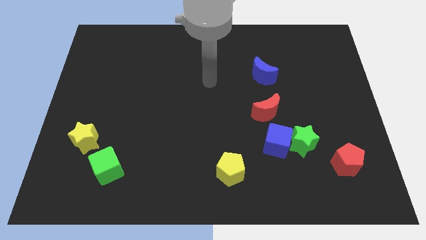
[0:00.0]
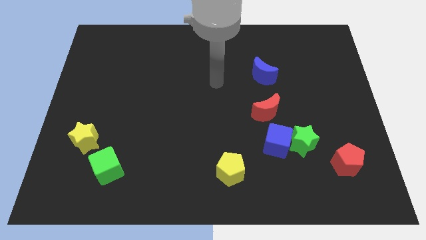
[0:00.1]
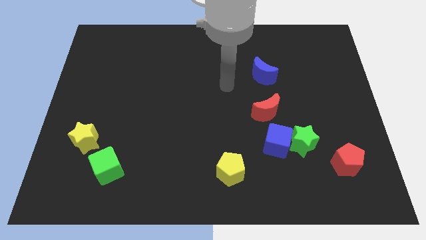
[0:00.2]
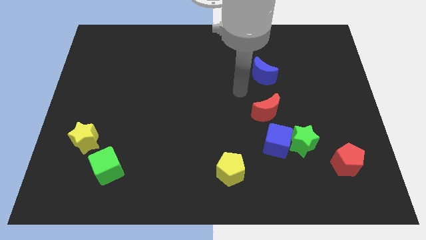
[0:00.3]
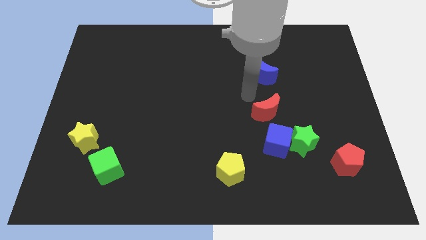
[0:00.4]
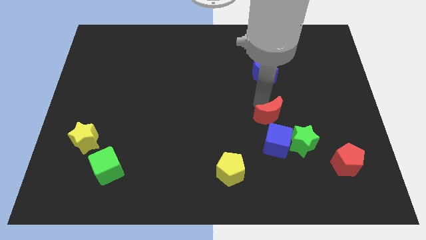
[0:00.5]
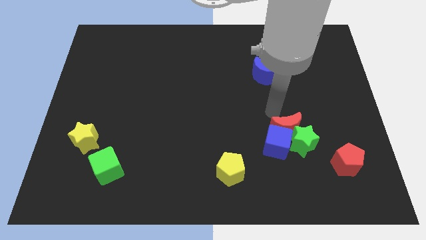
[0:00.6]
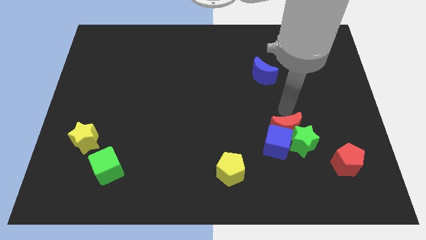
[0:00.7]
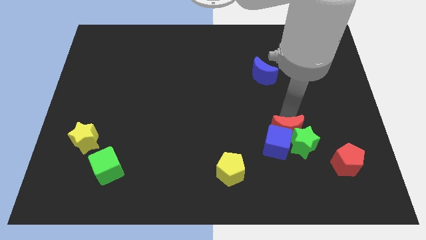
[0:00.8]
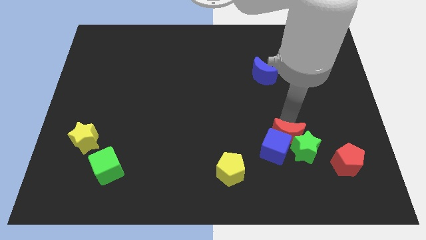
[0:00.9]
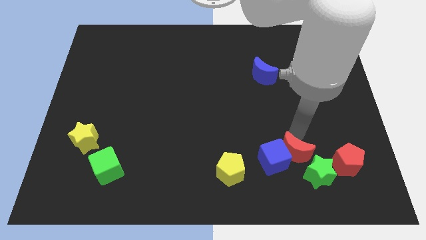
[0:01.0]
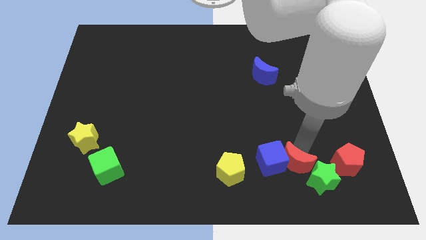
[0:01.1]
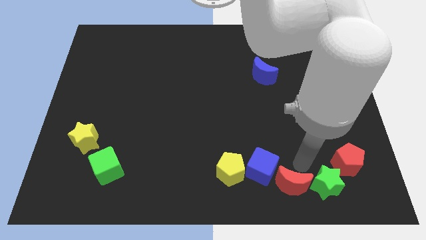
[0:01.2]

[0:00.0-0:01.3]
pull the blue cube apart from the green star and red moon

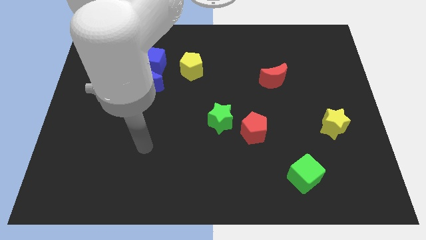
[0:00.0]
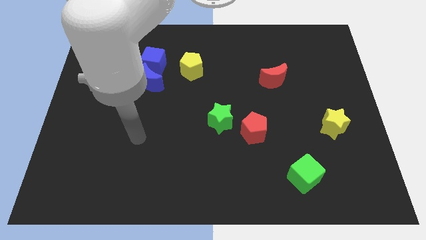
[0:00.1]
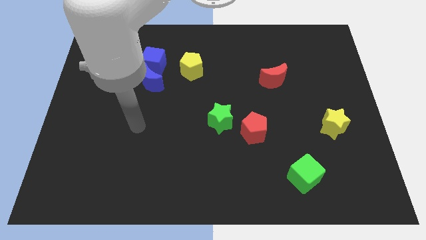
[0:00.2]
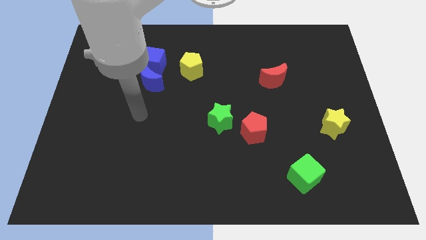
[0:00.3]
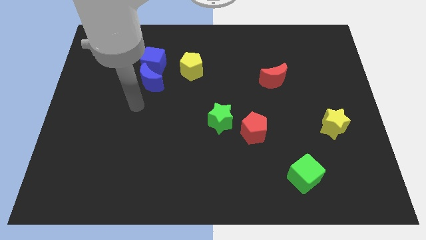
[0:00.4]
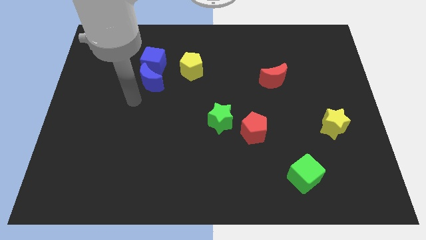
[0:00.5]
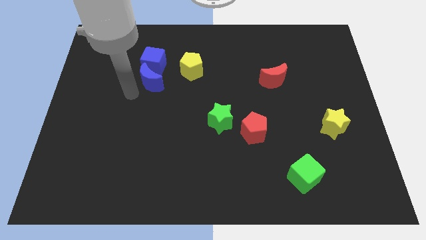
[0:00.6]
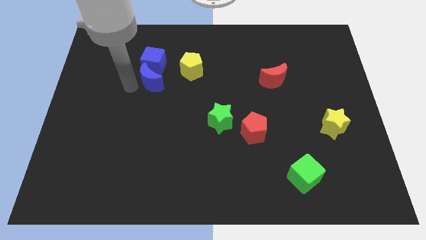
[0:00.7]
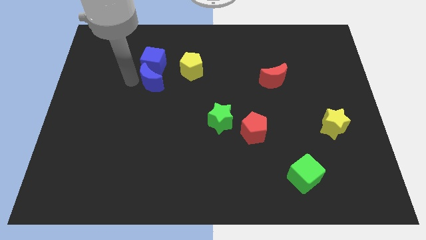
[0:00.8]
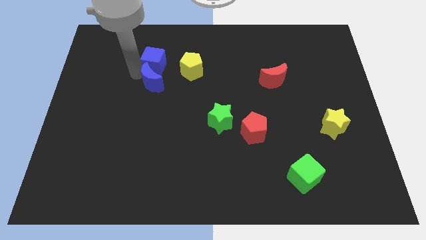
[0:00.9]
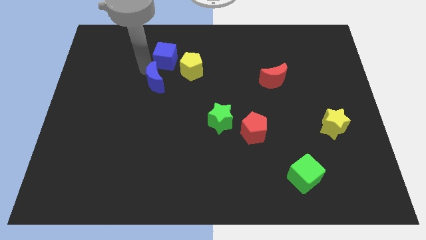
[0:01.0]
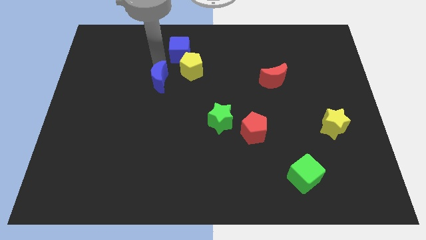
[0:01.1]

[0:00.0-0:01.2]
pull the blue moon apart from the blue cube

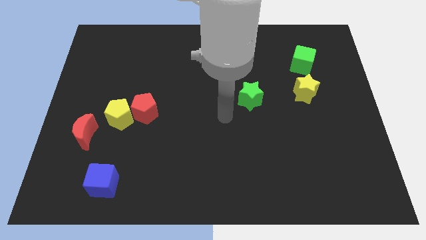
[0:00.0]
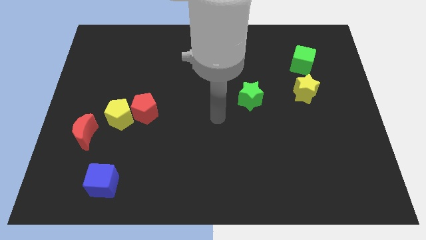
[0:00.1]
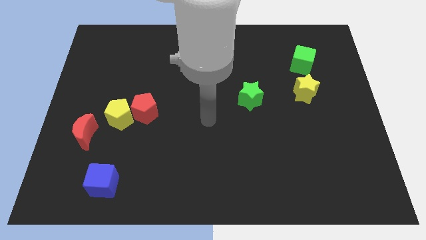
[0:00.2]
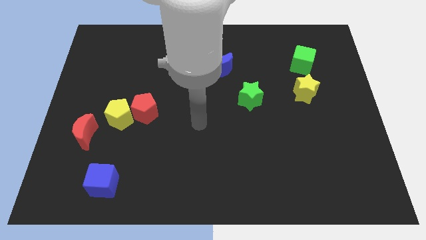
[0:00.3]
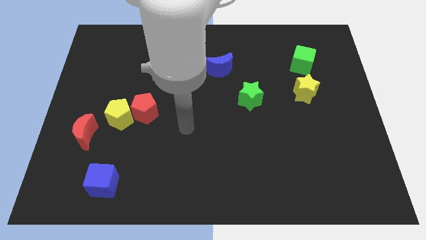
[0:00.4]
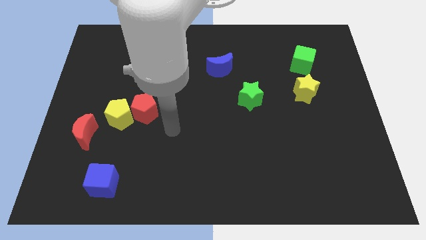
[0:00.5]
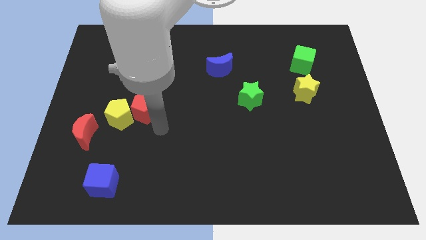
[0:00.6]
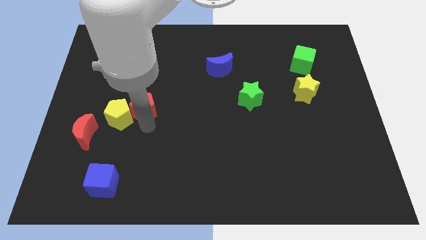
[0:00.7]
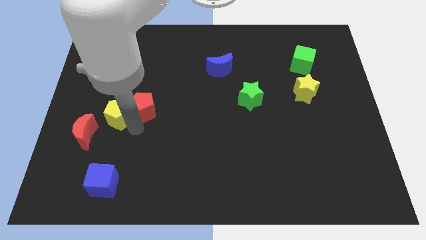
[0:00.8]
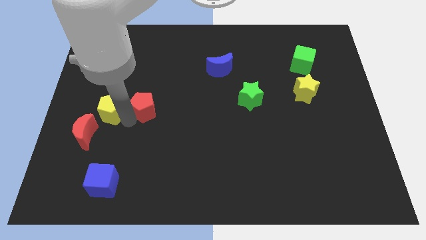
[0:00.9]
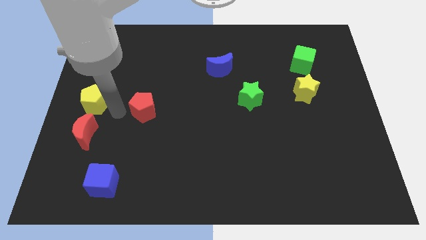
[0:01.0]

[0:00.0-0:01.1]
move the red pentagon away from the yellow pentagon

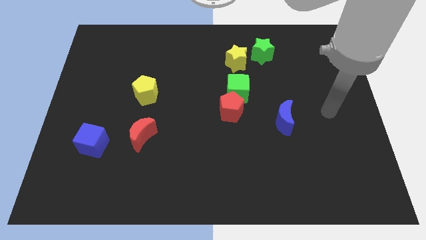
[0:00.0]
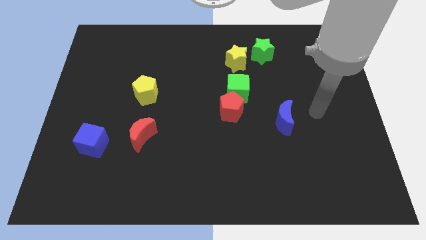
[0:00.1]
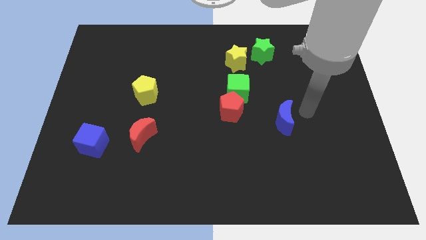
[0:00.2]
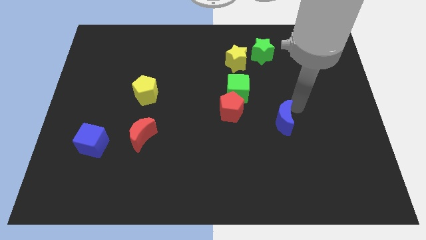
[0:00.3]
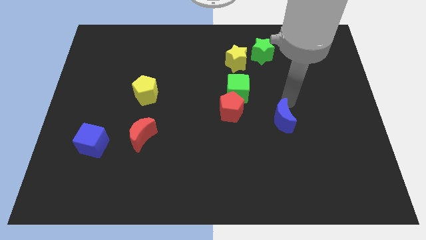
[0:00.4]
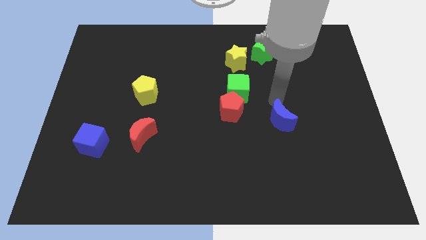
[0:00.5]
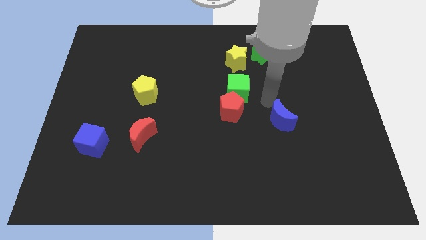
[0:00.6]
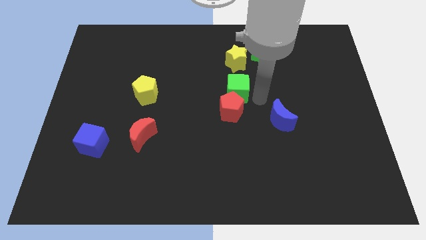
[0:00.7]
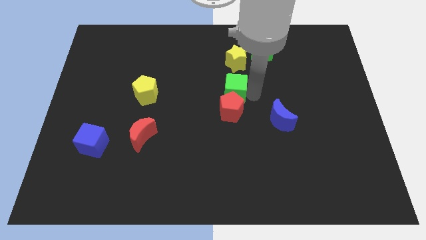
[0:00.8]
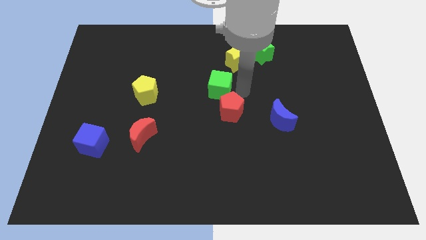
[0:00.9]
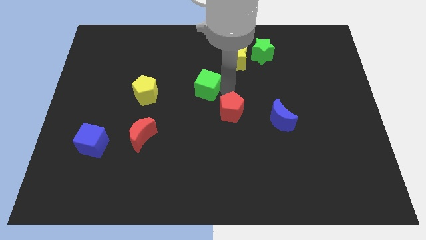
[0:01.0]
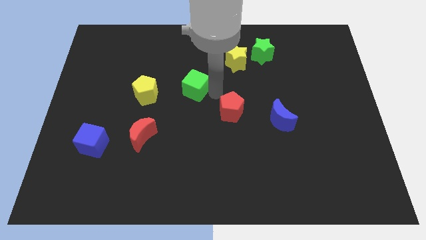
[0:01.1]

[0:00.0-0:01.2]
separate the red pentagon from the green cube

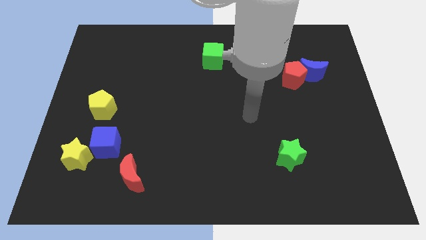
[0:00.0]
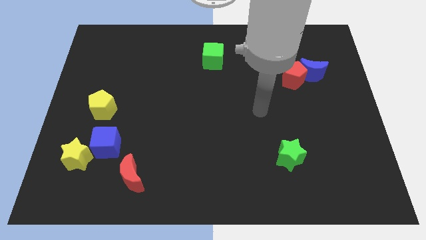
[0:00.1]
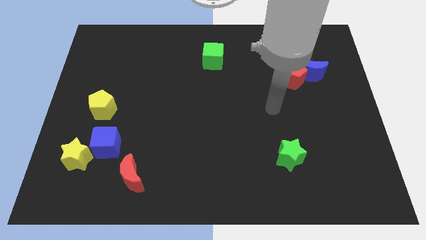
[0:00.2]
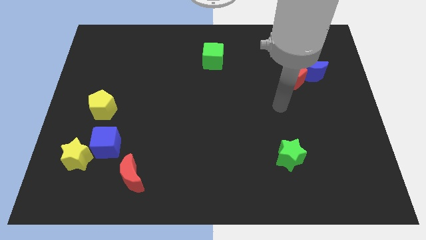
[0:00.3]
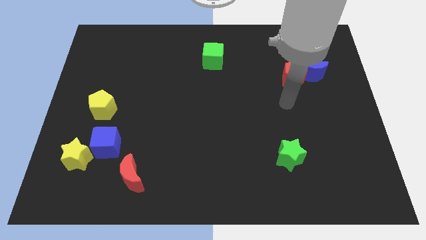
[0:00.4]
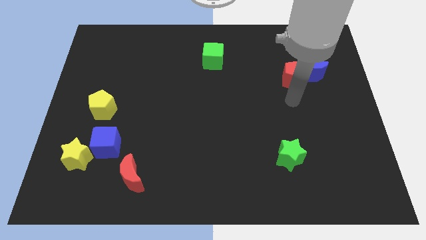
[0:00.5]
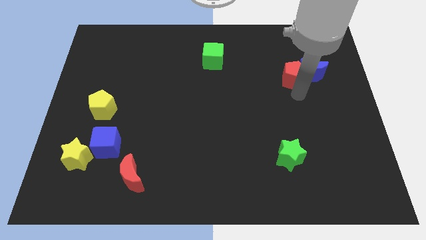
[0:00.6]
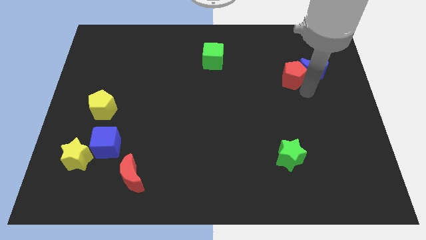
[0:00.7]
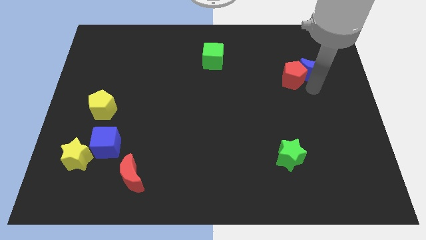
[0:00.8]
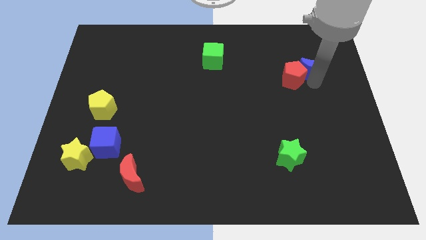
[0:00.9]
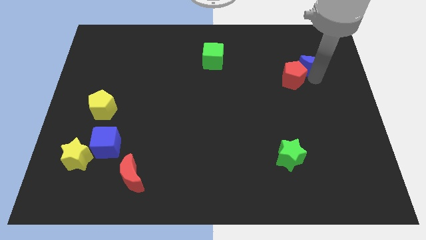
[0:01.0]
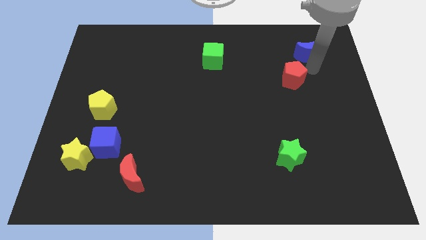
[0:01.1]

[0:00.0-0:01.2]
pull the red pentagon apart from the blue moon

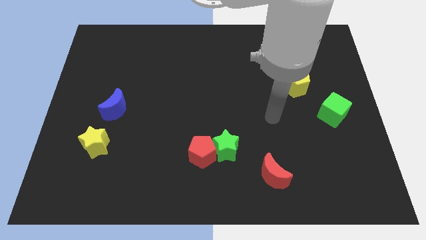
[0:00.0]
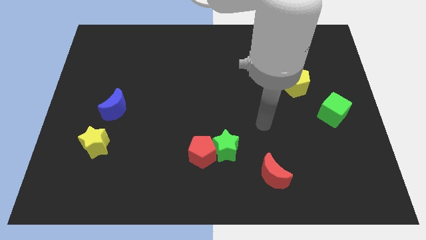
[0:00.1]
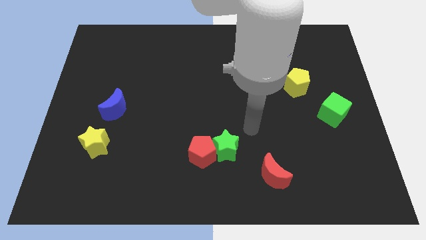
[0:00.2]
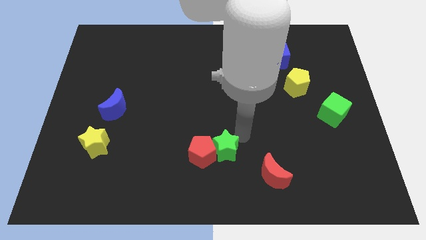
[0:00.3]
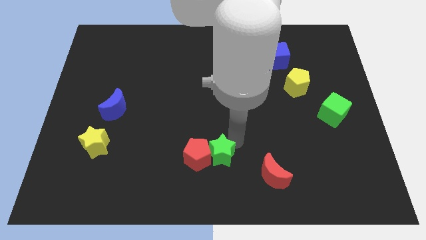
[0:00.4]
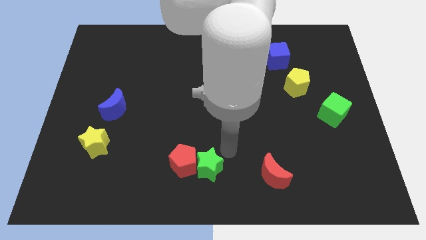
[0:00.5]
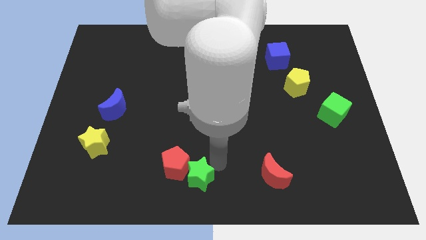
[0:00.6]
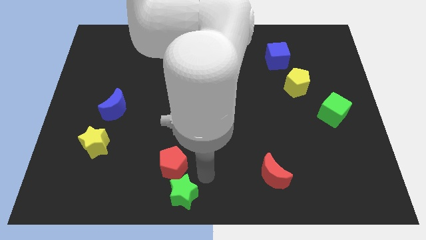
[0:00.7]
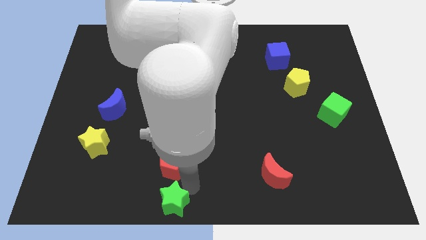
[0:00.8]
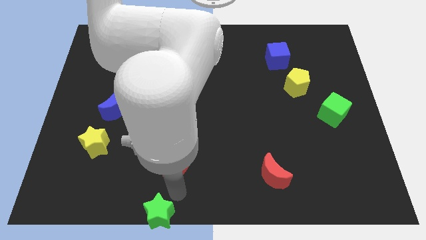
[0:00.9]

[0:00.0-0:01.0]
pull the red pentagon apart from the green star

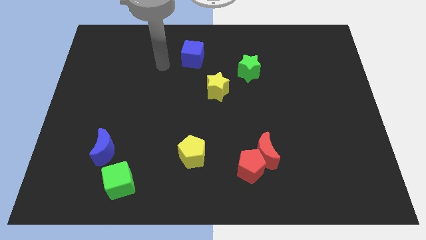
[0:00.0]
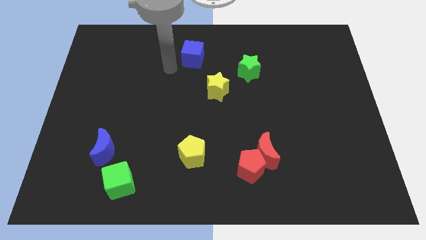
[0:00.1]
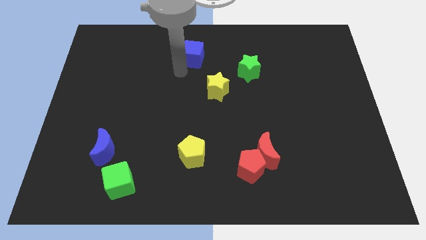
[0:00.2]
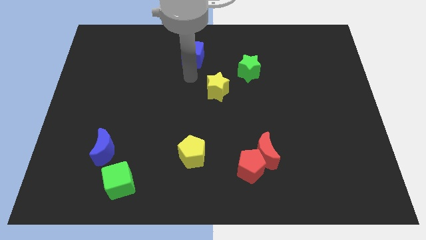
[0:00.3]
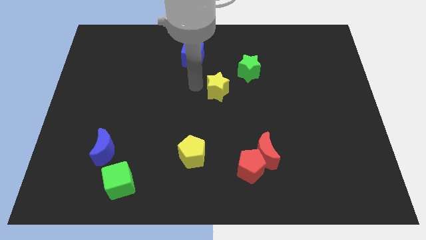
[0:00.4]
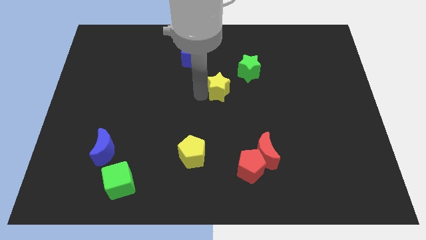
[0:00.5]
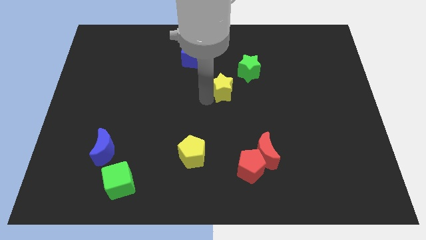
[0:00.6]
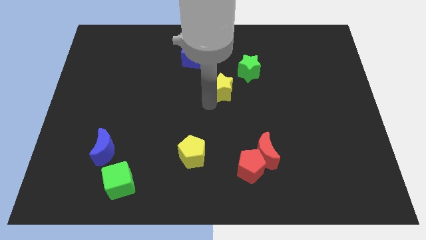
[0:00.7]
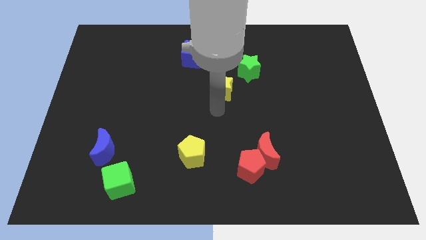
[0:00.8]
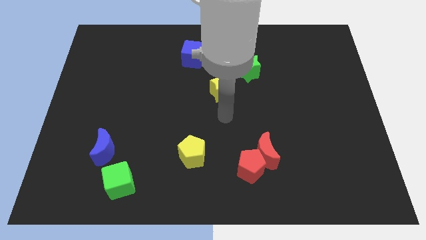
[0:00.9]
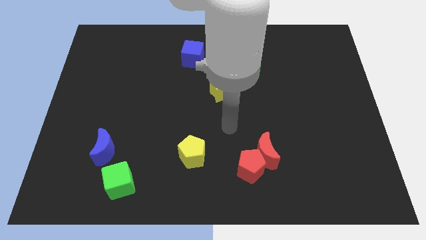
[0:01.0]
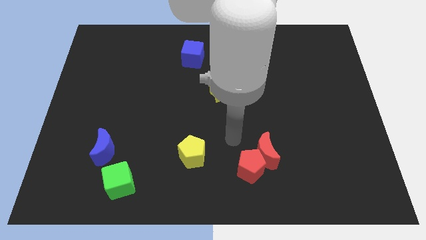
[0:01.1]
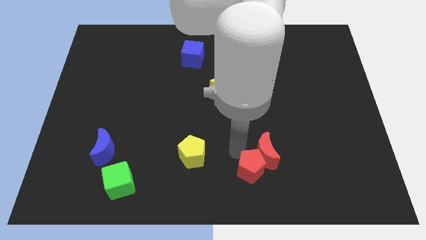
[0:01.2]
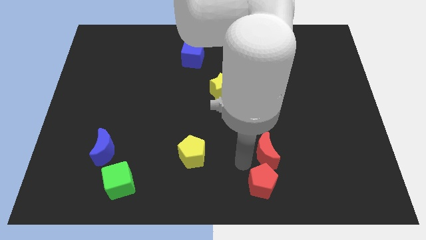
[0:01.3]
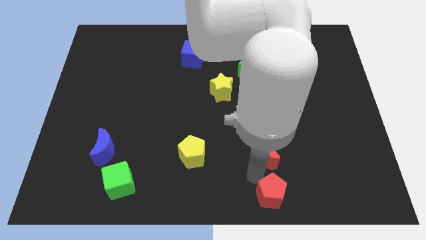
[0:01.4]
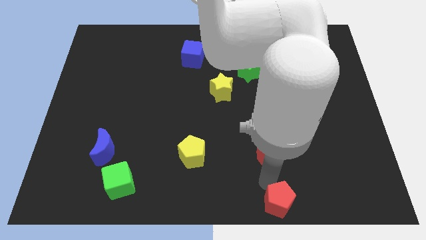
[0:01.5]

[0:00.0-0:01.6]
move the red moon away from the red pentagon

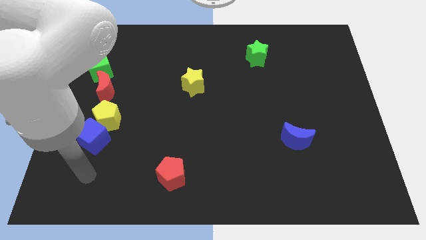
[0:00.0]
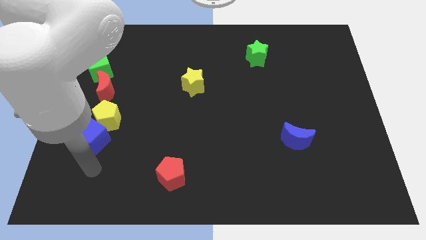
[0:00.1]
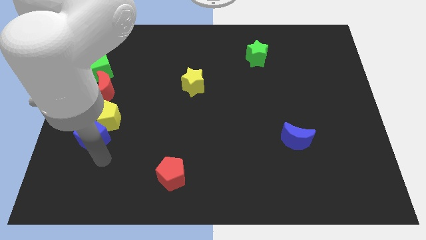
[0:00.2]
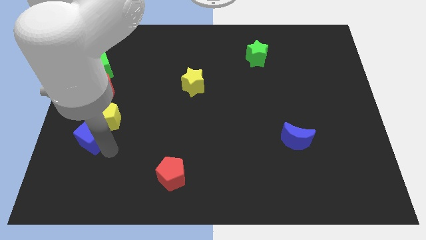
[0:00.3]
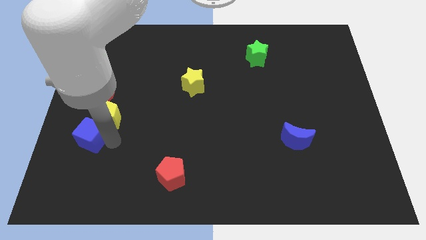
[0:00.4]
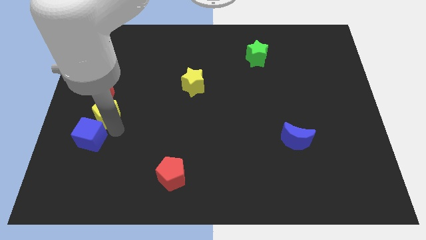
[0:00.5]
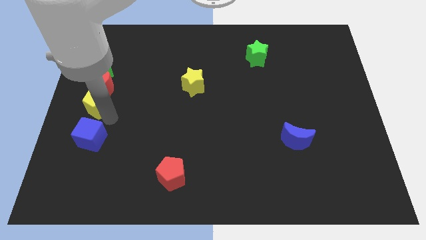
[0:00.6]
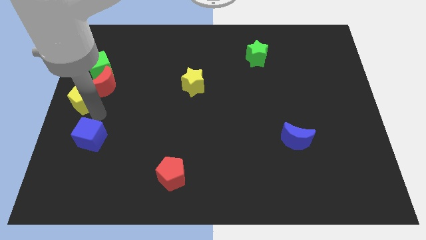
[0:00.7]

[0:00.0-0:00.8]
separate the blue cube from the yellow pentagon

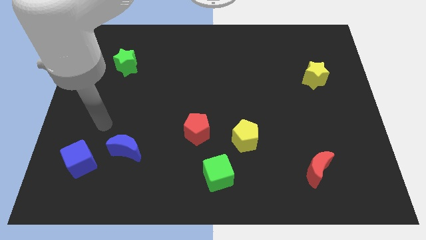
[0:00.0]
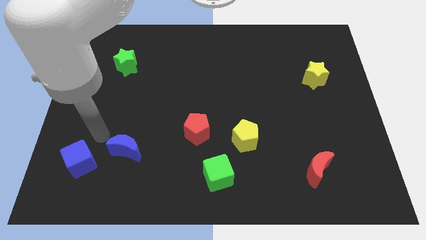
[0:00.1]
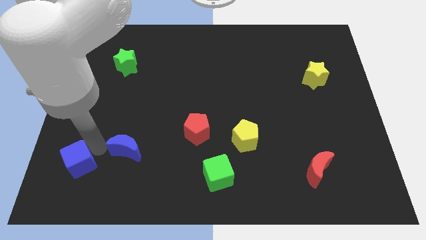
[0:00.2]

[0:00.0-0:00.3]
move the blue moon away from the blue cube
